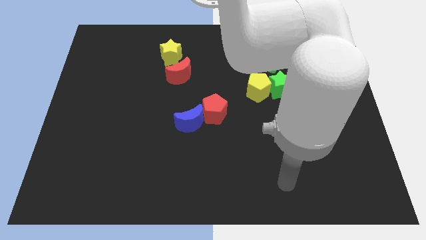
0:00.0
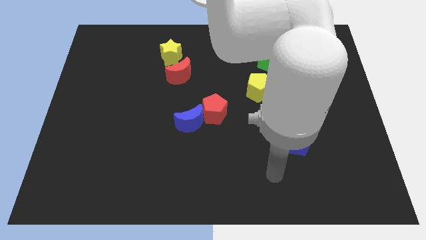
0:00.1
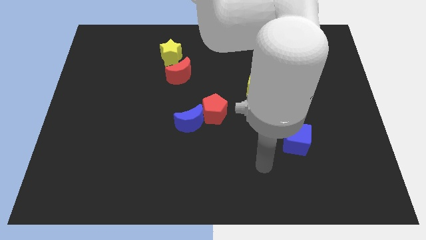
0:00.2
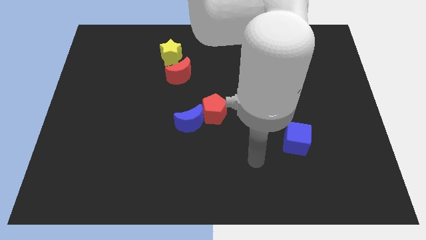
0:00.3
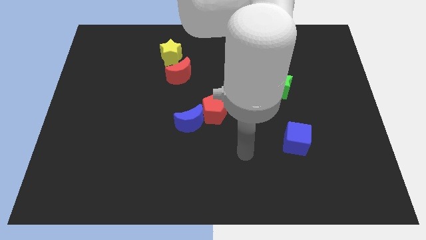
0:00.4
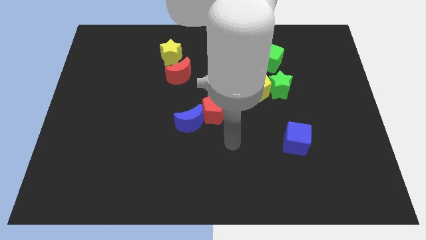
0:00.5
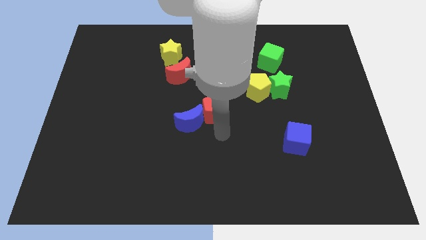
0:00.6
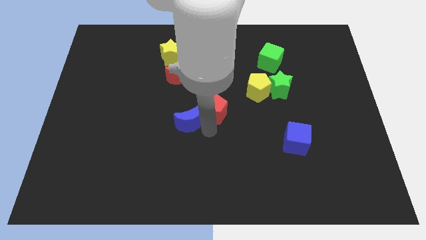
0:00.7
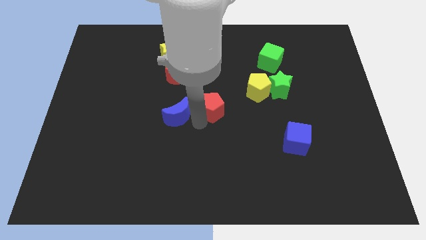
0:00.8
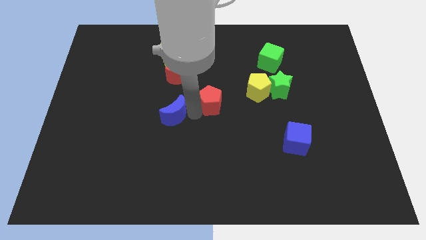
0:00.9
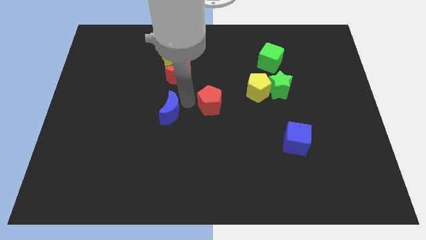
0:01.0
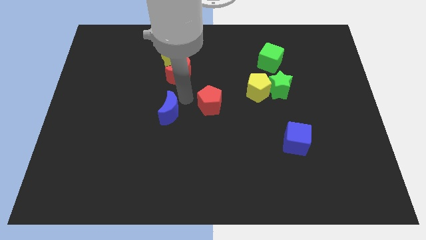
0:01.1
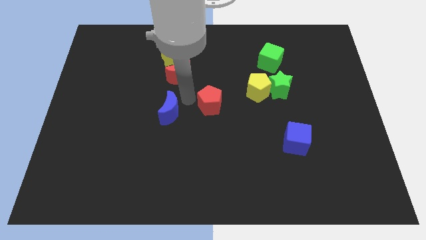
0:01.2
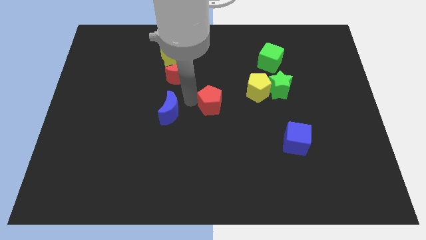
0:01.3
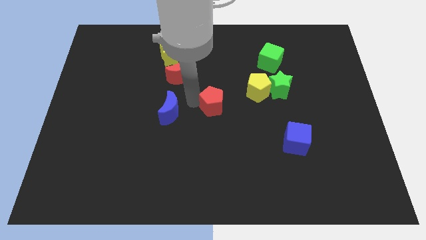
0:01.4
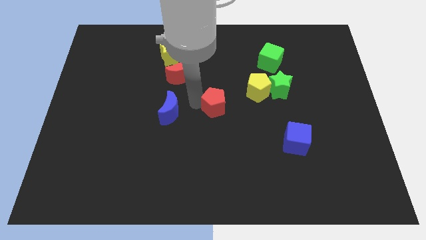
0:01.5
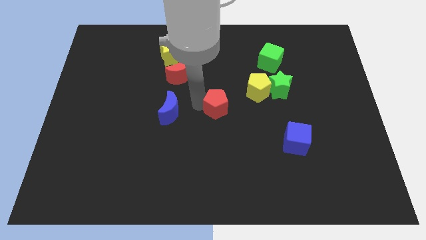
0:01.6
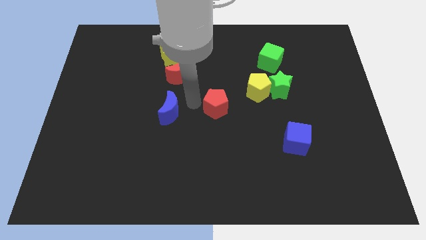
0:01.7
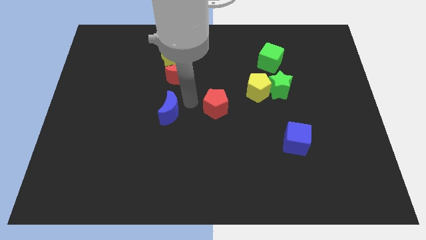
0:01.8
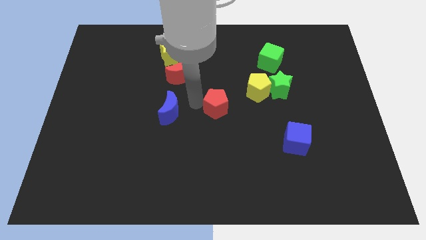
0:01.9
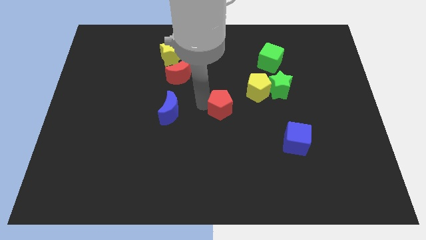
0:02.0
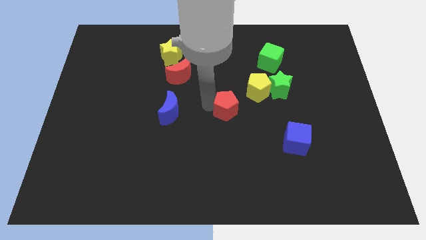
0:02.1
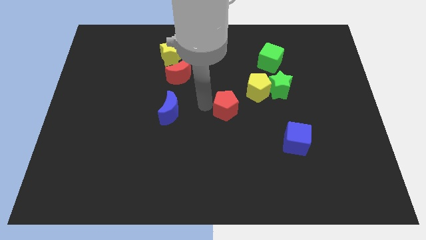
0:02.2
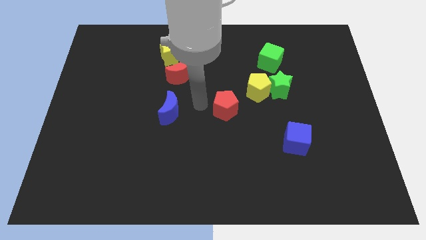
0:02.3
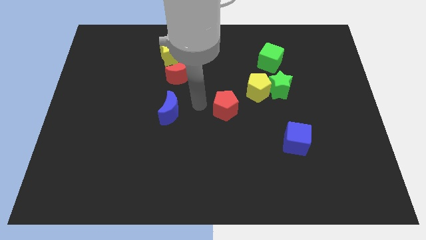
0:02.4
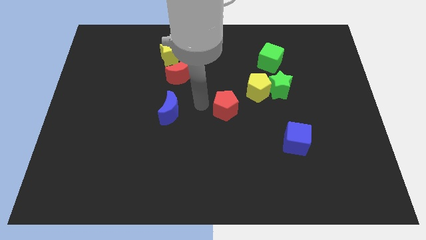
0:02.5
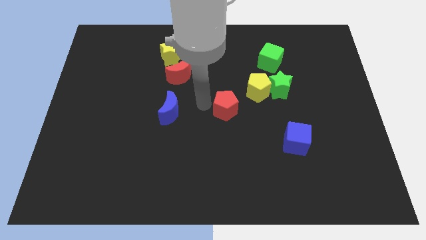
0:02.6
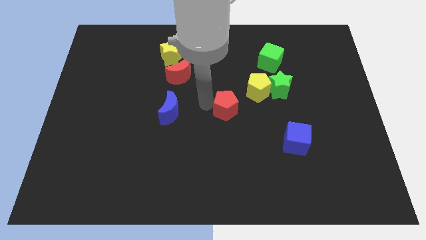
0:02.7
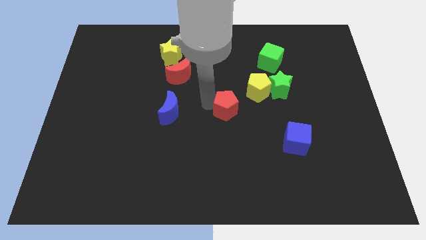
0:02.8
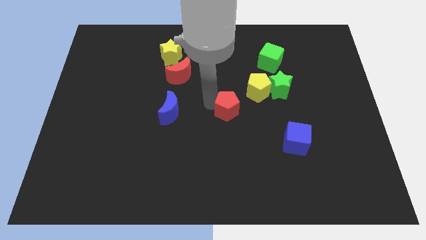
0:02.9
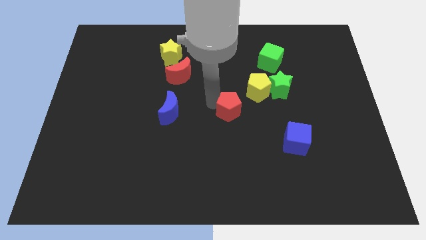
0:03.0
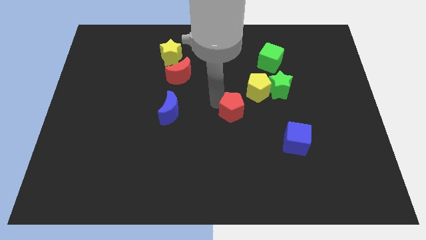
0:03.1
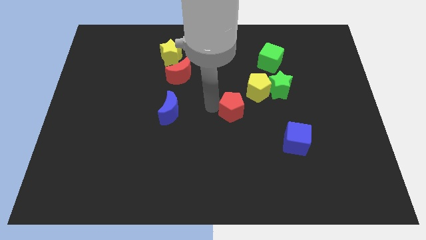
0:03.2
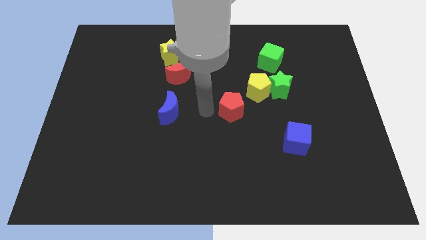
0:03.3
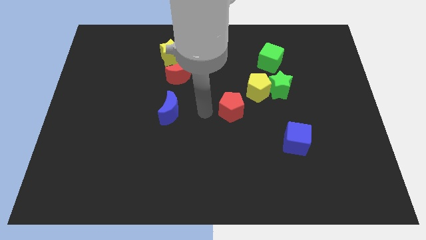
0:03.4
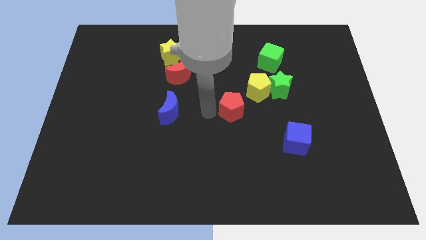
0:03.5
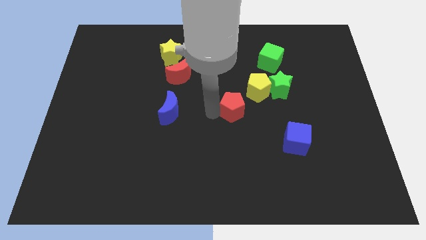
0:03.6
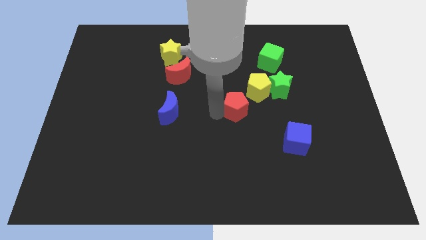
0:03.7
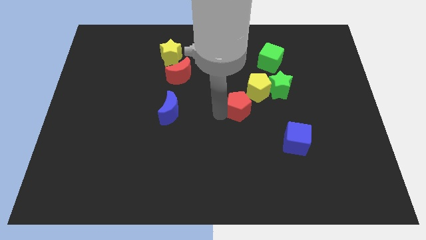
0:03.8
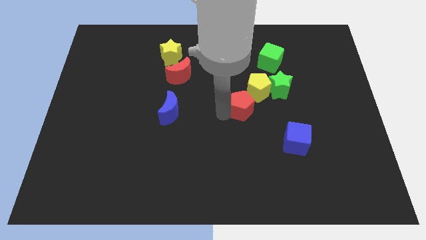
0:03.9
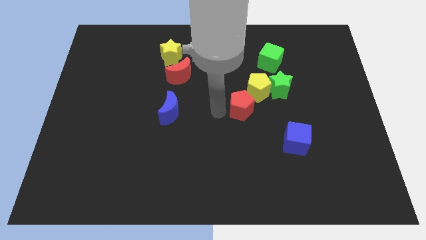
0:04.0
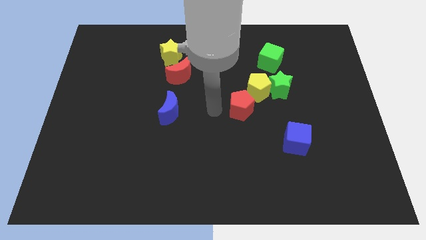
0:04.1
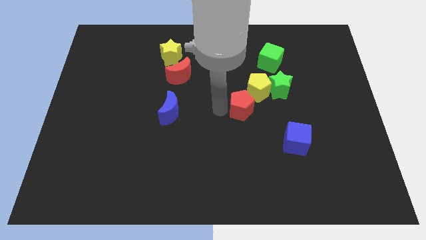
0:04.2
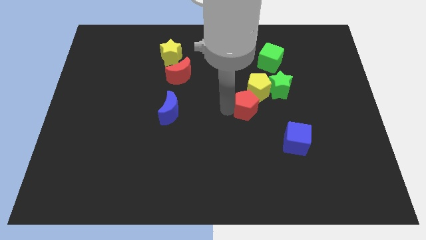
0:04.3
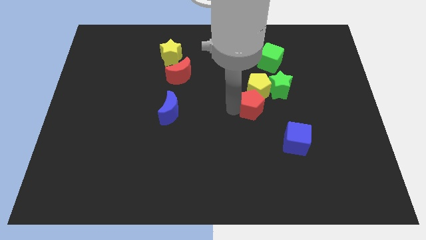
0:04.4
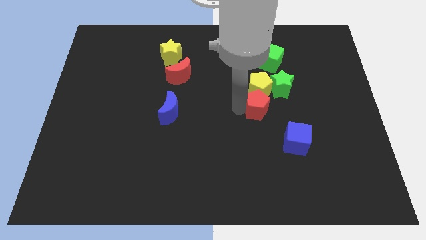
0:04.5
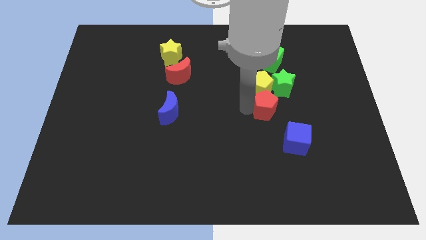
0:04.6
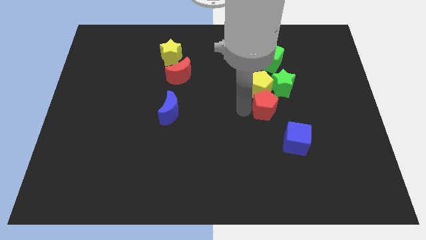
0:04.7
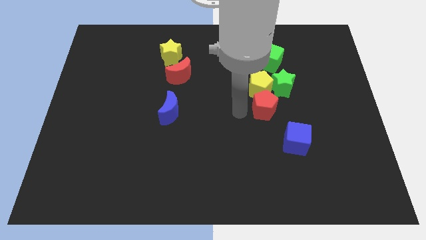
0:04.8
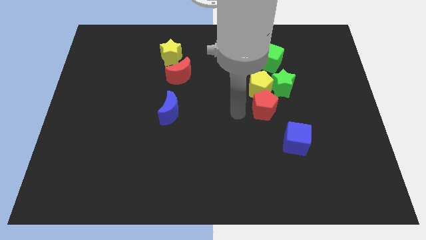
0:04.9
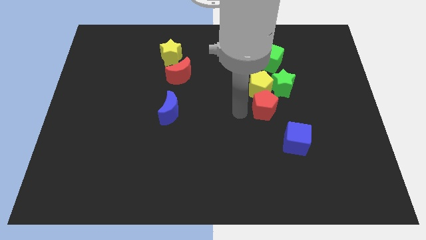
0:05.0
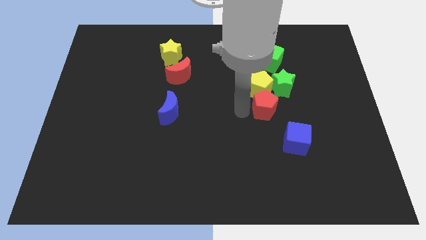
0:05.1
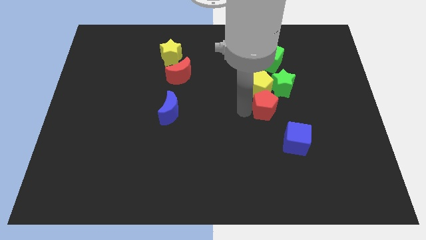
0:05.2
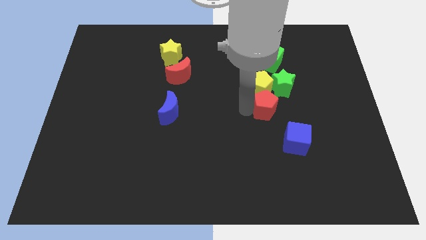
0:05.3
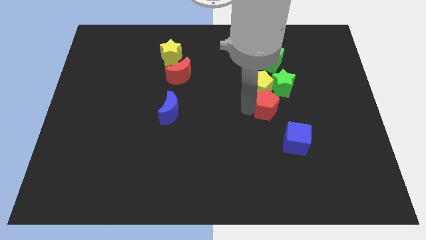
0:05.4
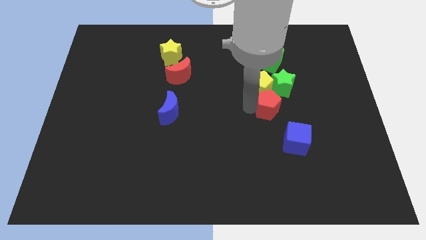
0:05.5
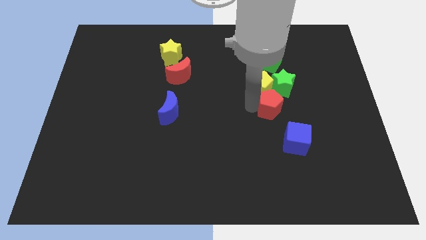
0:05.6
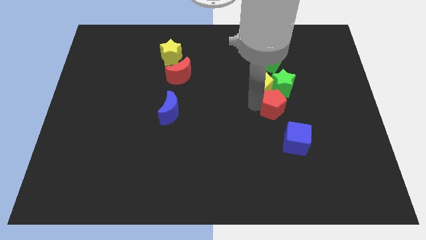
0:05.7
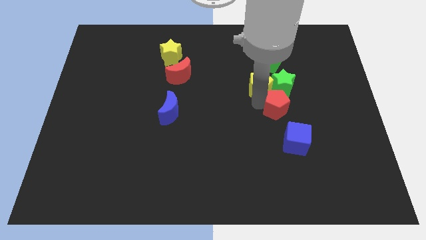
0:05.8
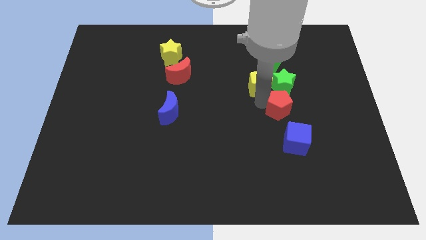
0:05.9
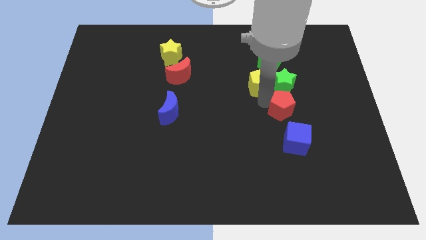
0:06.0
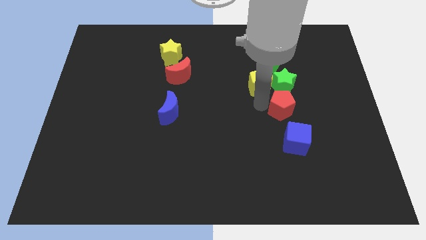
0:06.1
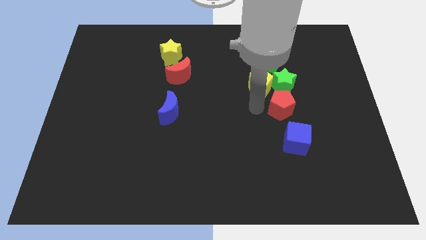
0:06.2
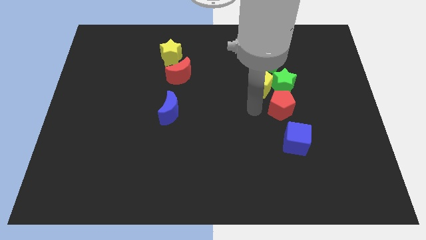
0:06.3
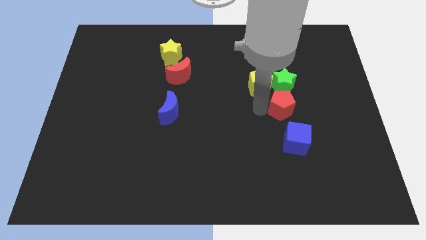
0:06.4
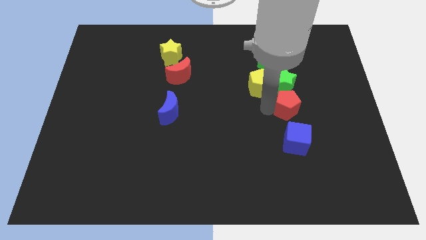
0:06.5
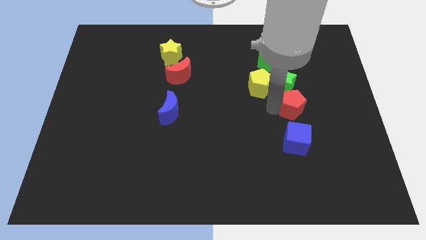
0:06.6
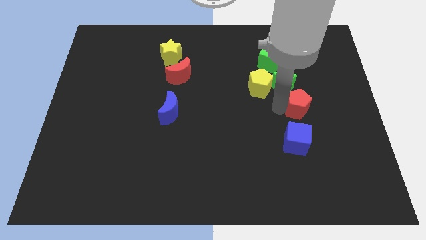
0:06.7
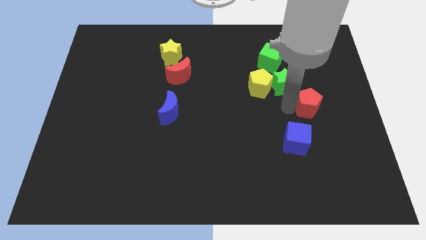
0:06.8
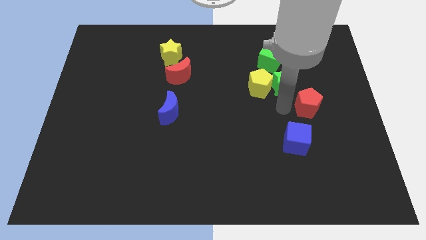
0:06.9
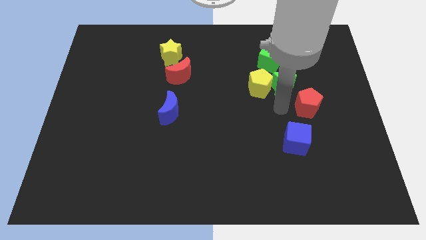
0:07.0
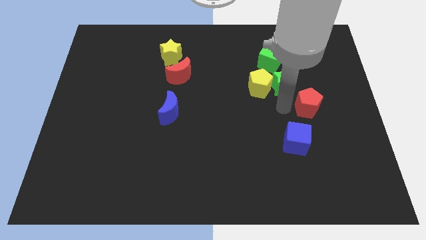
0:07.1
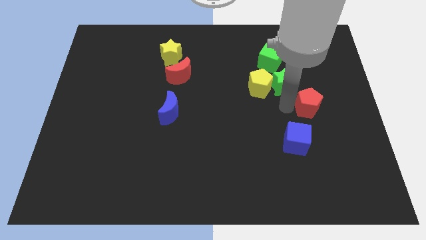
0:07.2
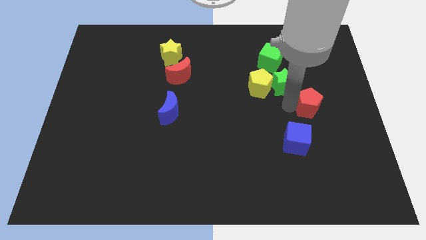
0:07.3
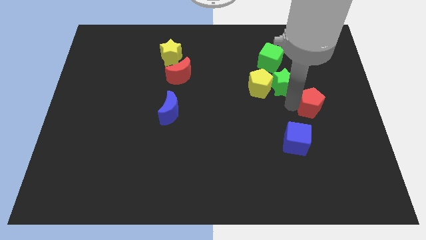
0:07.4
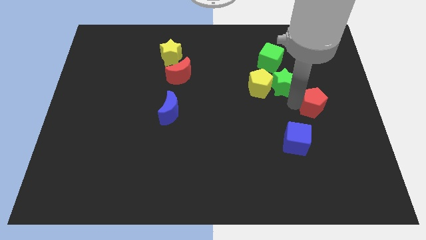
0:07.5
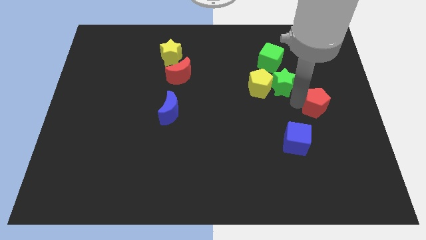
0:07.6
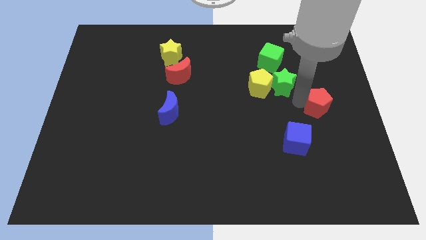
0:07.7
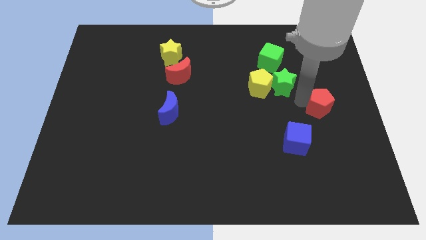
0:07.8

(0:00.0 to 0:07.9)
slide the red pentagon to the right side
